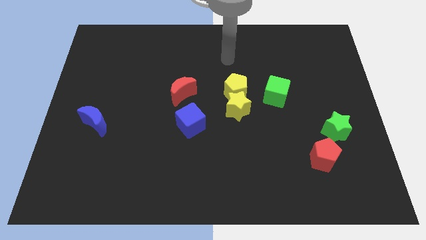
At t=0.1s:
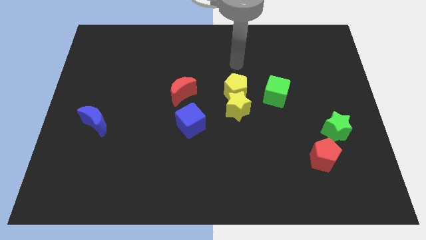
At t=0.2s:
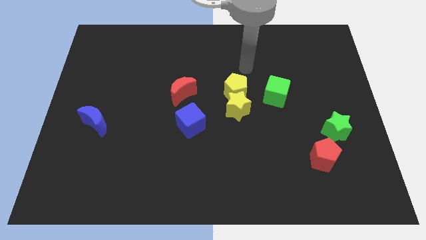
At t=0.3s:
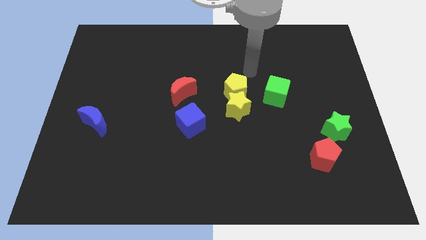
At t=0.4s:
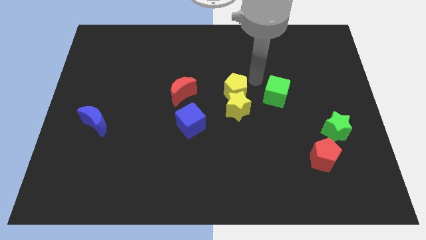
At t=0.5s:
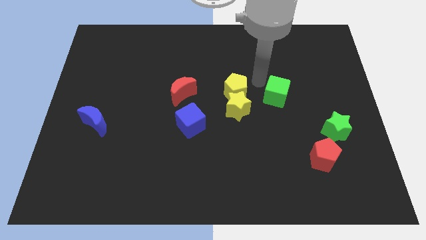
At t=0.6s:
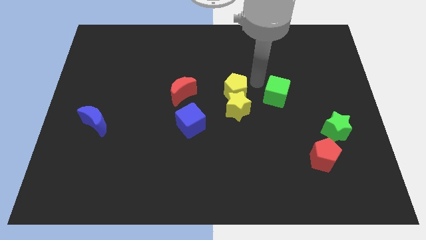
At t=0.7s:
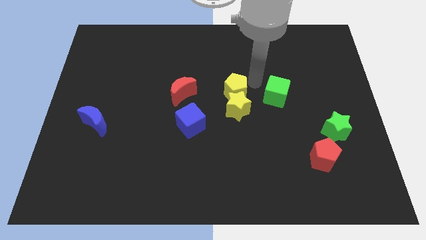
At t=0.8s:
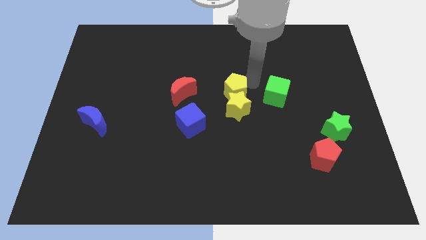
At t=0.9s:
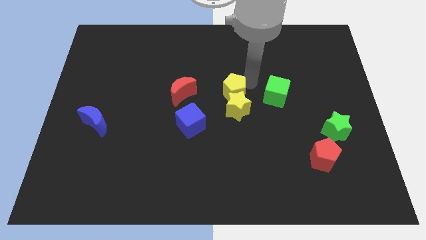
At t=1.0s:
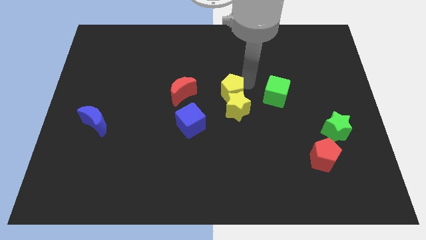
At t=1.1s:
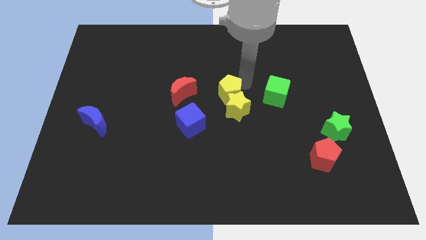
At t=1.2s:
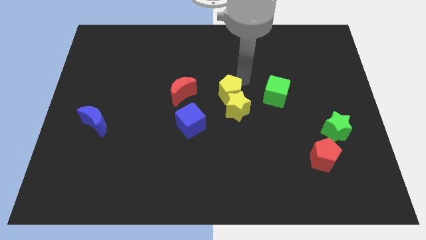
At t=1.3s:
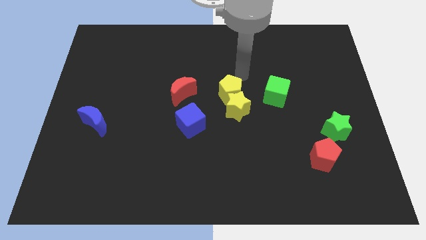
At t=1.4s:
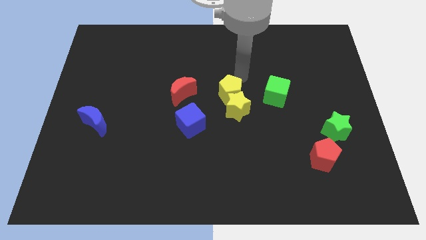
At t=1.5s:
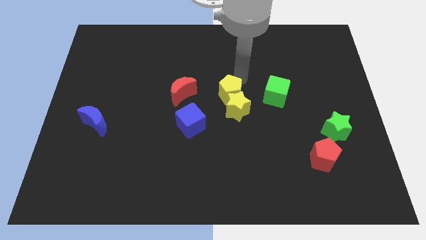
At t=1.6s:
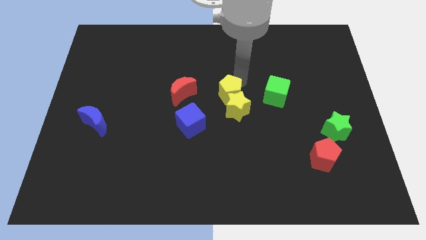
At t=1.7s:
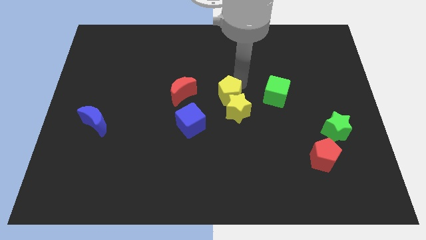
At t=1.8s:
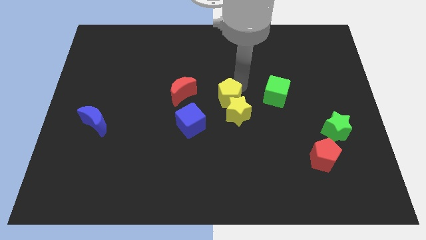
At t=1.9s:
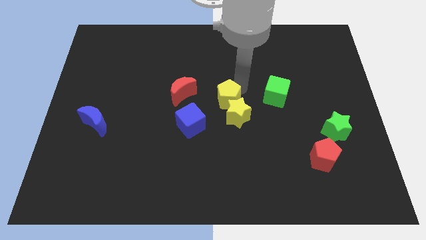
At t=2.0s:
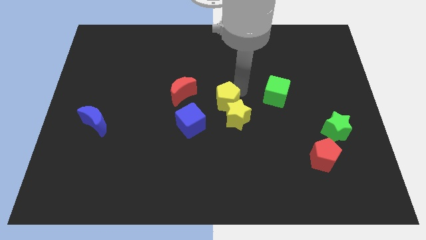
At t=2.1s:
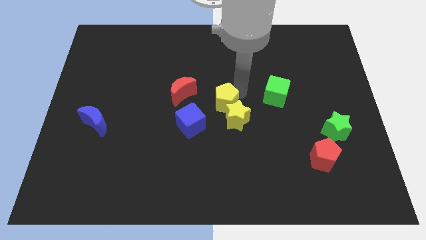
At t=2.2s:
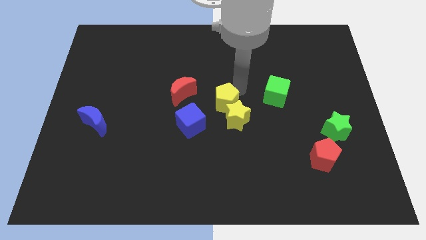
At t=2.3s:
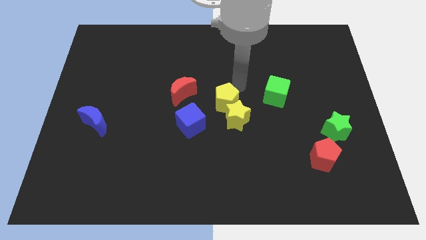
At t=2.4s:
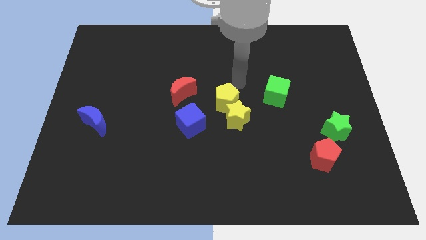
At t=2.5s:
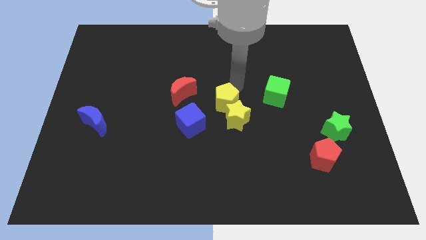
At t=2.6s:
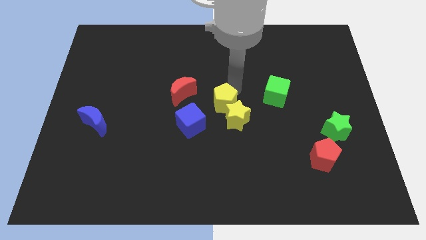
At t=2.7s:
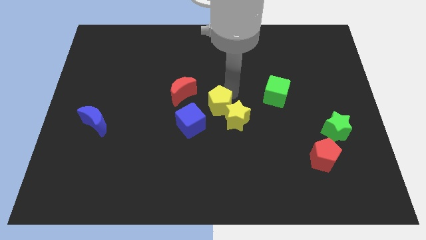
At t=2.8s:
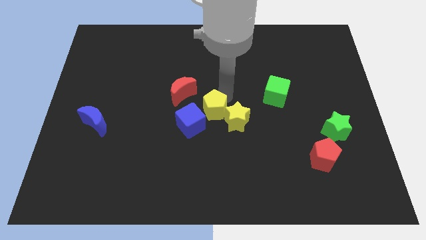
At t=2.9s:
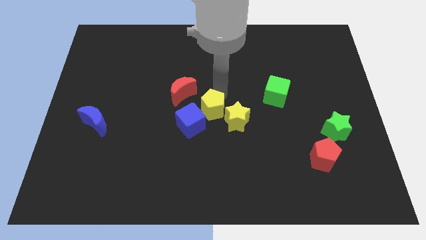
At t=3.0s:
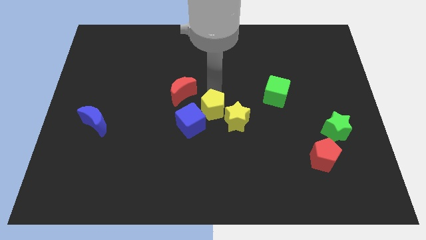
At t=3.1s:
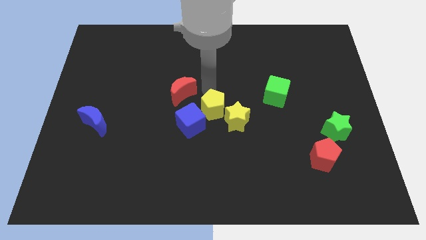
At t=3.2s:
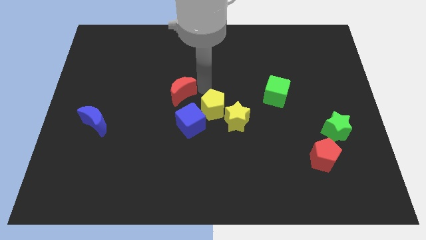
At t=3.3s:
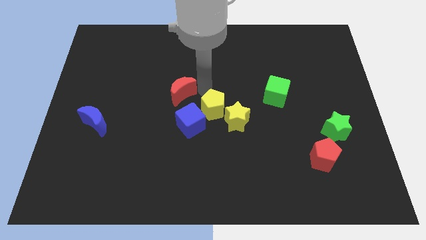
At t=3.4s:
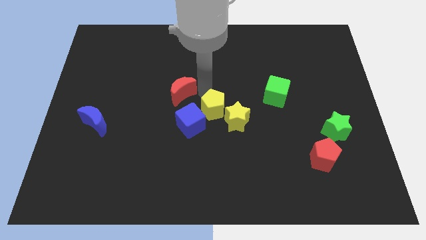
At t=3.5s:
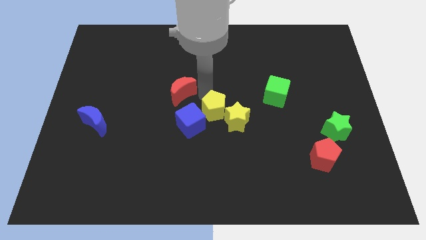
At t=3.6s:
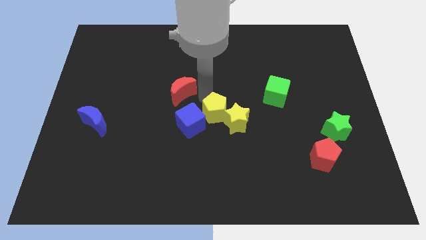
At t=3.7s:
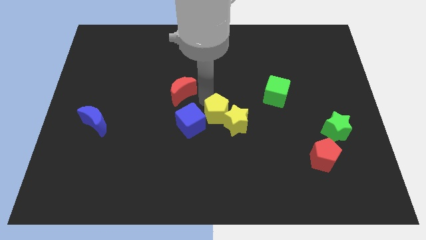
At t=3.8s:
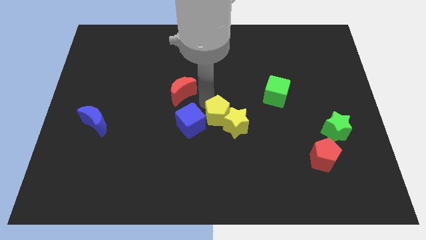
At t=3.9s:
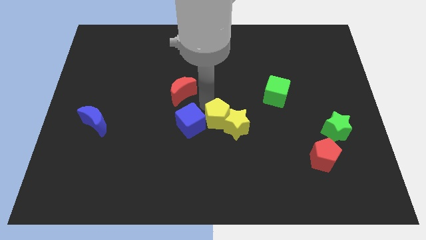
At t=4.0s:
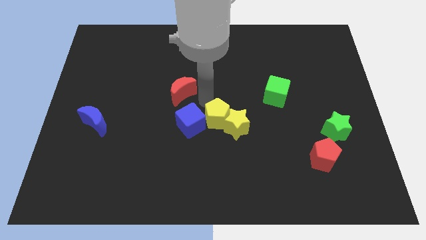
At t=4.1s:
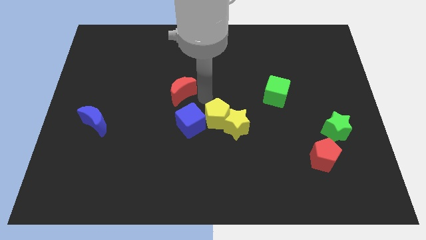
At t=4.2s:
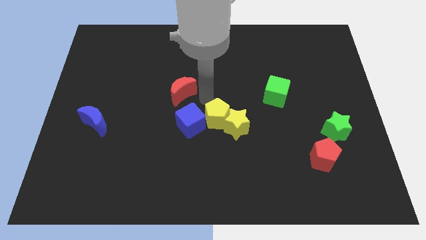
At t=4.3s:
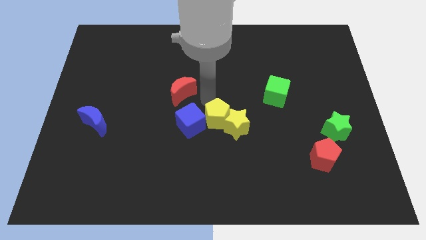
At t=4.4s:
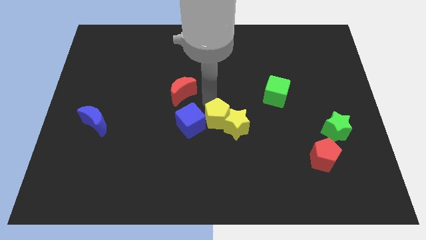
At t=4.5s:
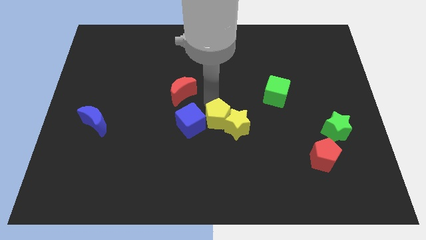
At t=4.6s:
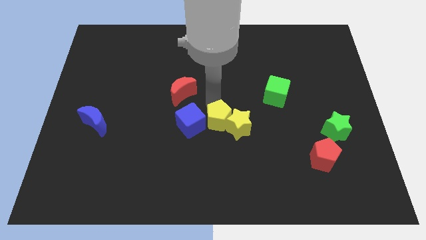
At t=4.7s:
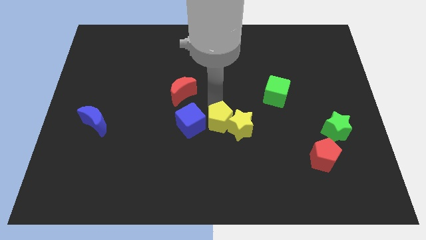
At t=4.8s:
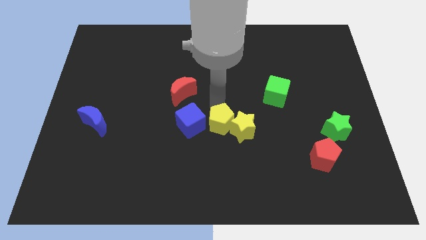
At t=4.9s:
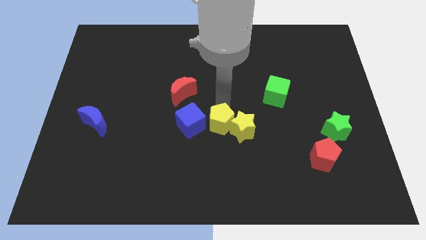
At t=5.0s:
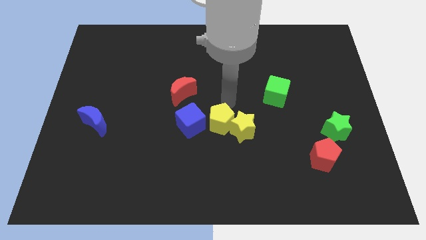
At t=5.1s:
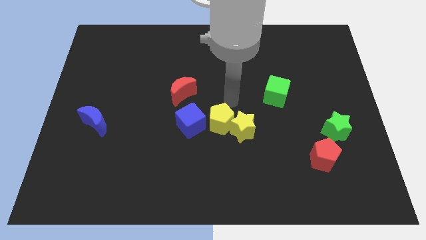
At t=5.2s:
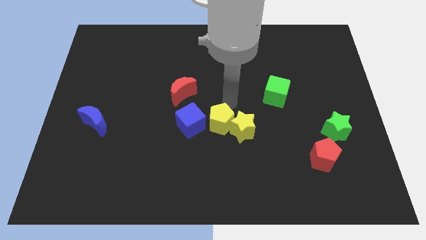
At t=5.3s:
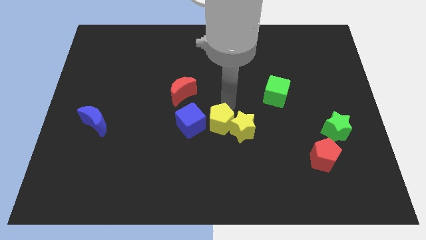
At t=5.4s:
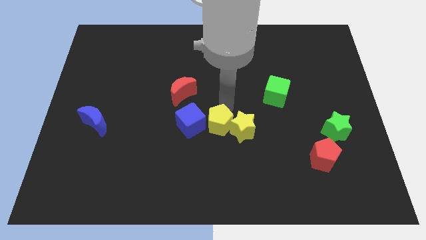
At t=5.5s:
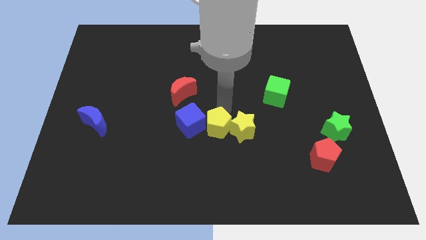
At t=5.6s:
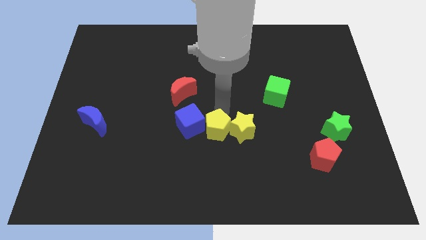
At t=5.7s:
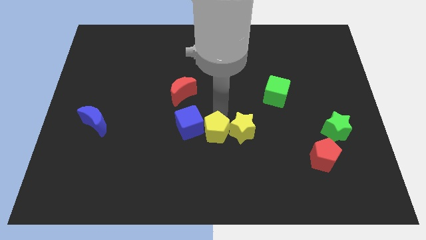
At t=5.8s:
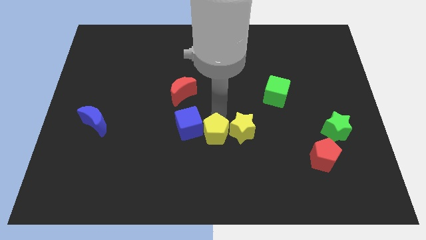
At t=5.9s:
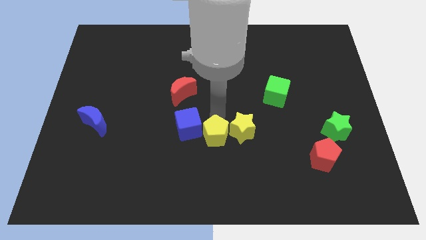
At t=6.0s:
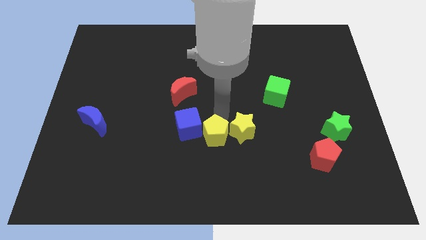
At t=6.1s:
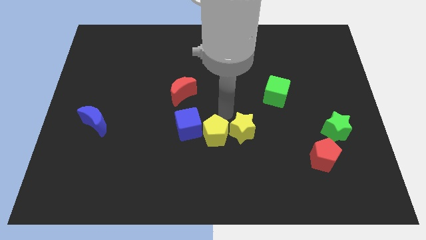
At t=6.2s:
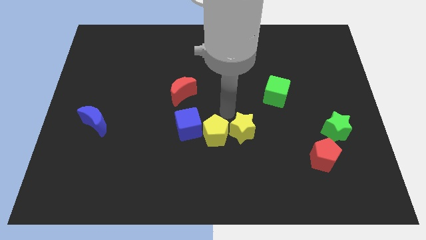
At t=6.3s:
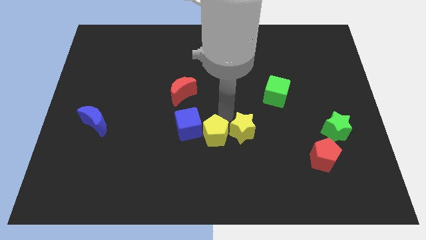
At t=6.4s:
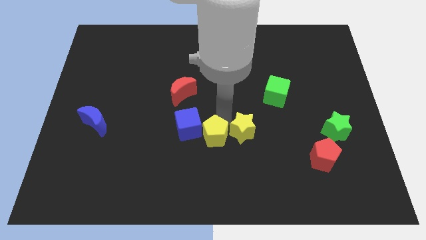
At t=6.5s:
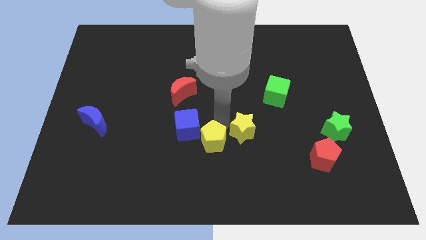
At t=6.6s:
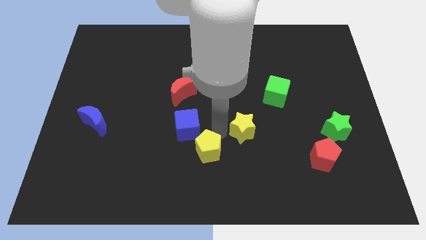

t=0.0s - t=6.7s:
move the yellow pentagon to the bottom of the blue cube
